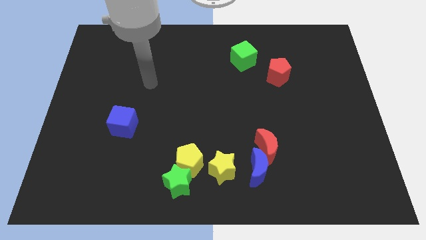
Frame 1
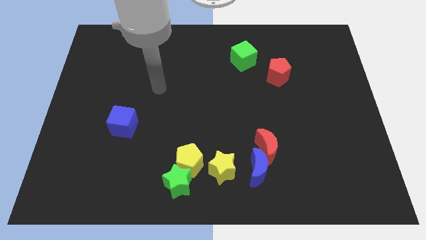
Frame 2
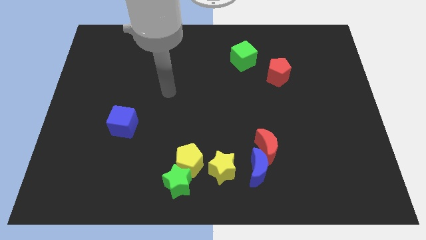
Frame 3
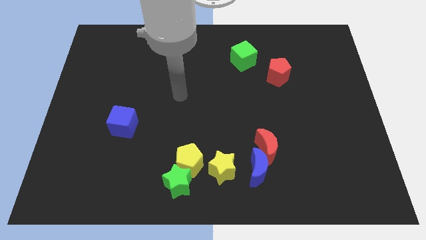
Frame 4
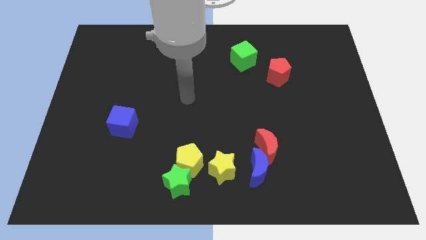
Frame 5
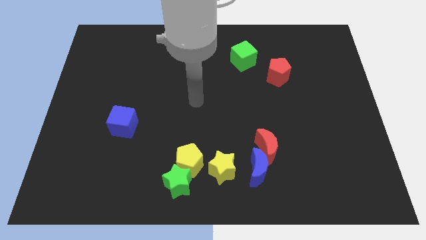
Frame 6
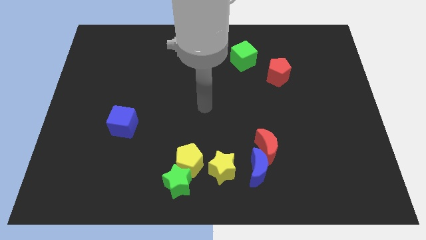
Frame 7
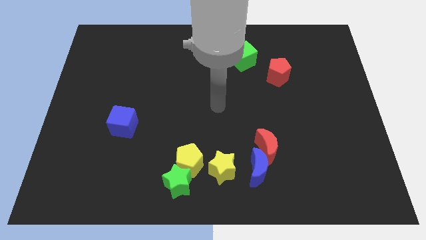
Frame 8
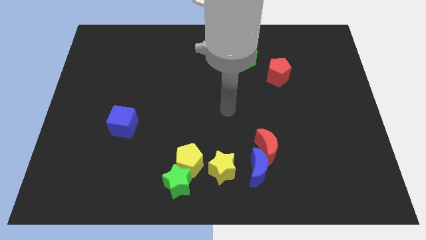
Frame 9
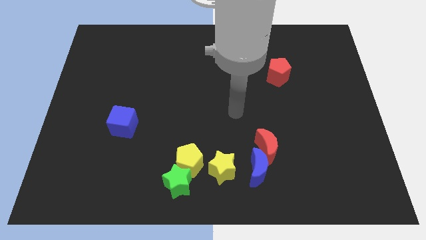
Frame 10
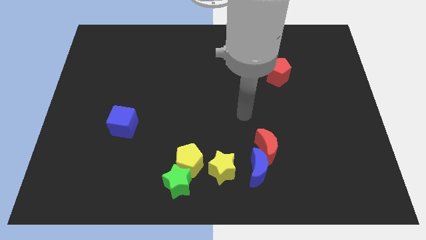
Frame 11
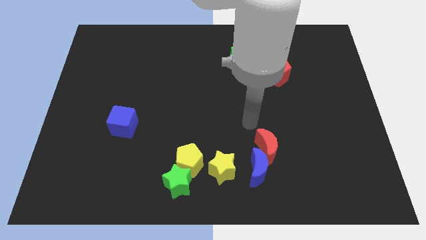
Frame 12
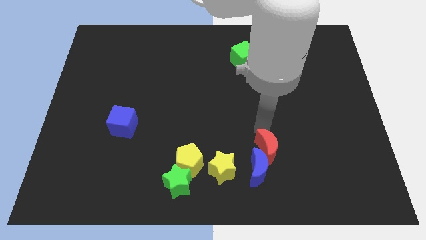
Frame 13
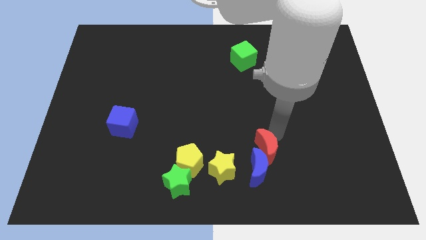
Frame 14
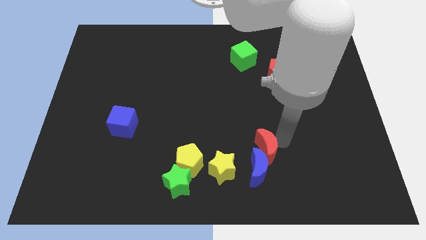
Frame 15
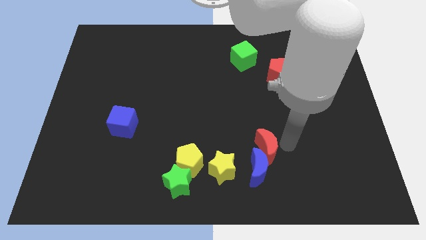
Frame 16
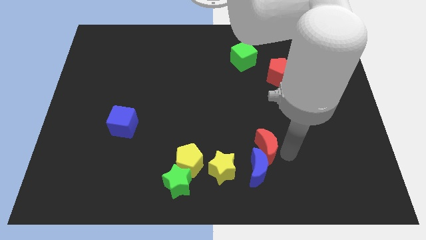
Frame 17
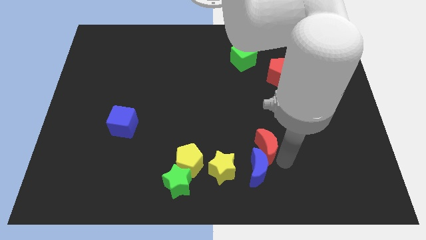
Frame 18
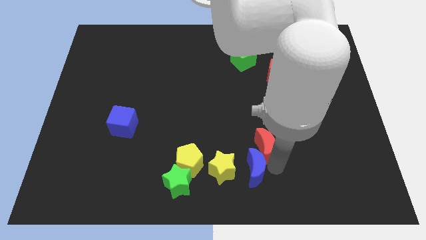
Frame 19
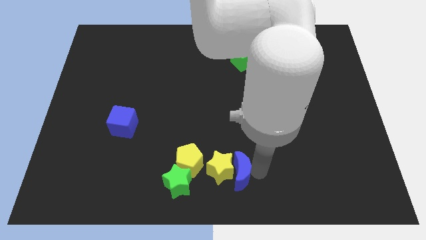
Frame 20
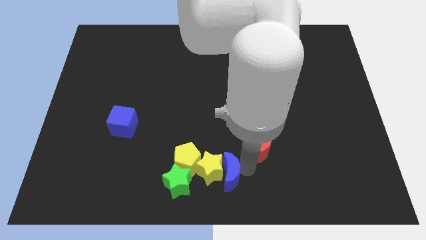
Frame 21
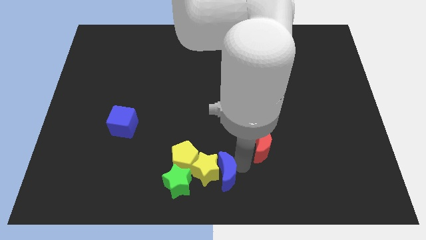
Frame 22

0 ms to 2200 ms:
move the red moon away from the blue moon

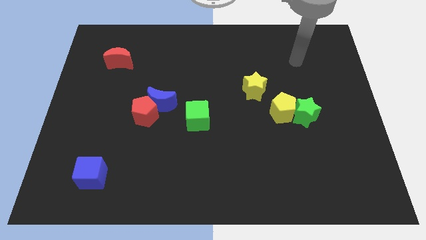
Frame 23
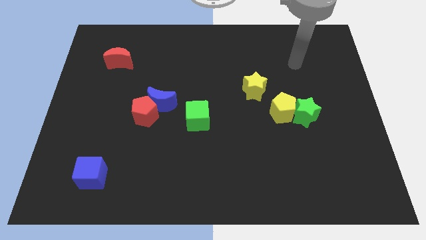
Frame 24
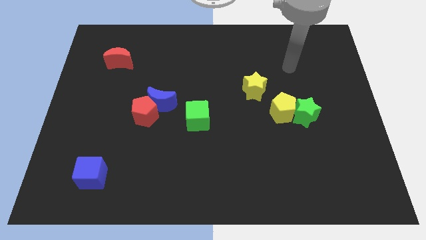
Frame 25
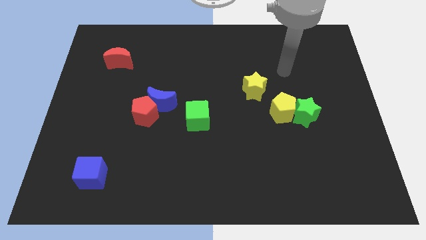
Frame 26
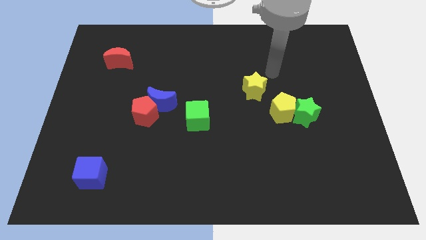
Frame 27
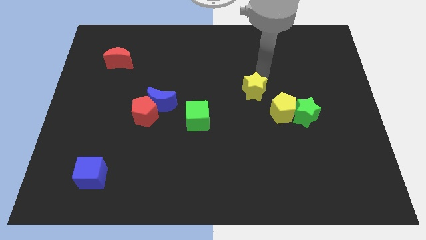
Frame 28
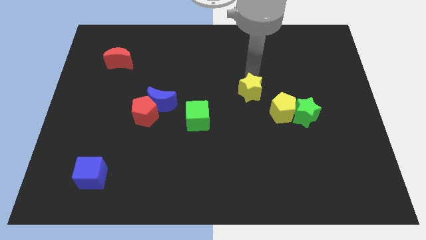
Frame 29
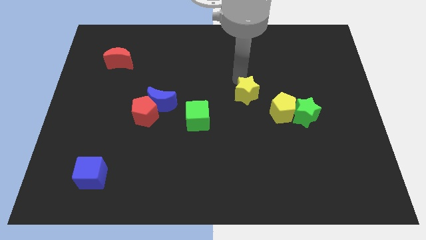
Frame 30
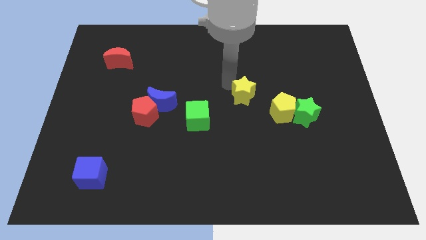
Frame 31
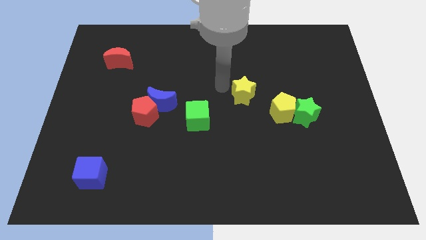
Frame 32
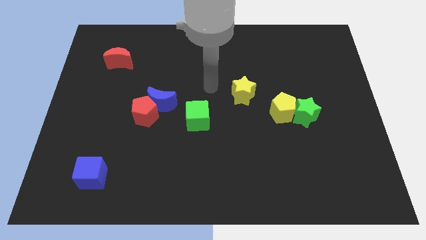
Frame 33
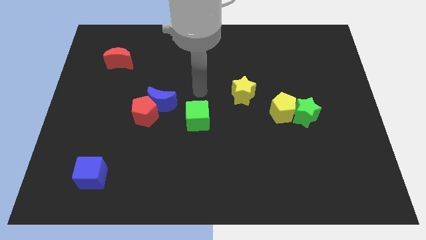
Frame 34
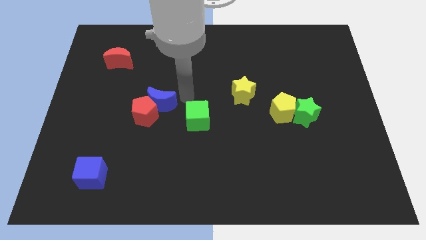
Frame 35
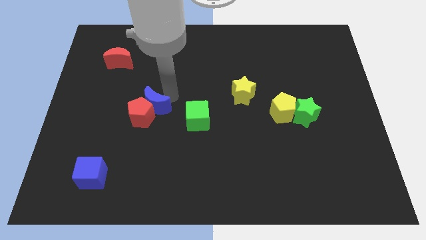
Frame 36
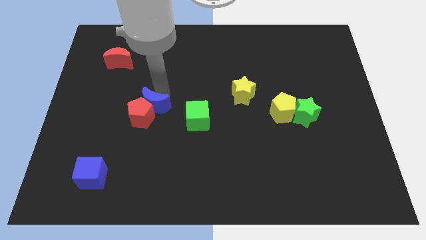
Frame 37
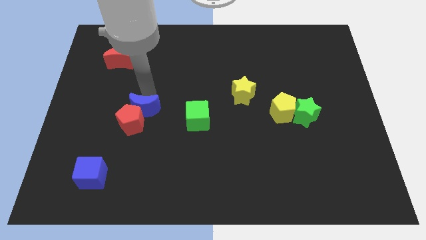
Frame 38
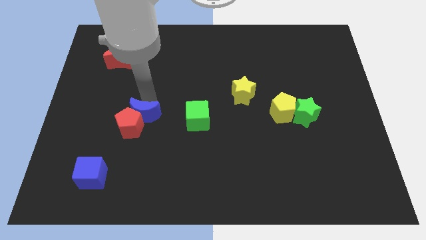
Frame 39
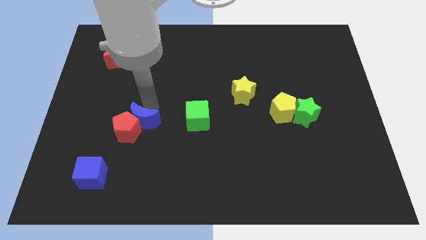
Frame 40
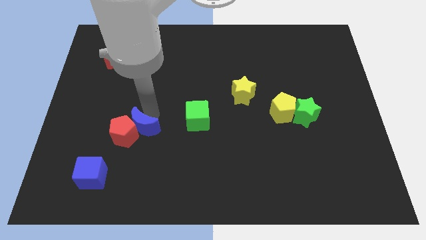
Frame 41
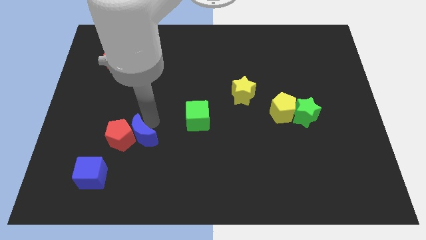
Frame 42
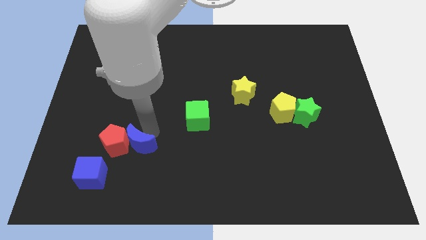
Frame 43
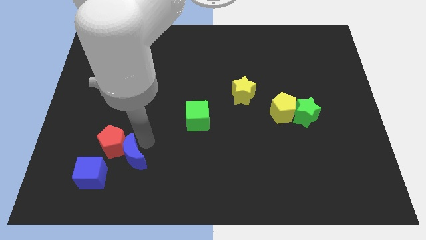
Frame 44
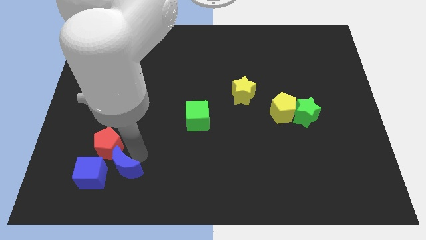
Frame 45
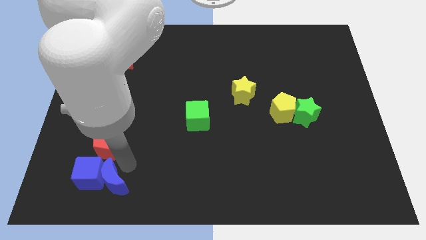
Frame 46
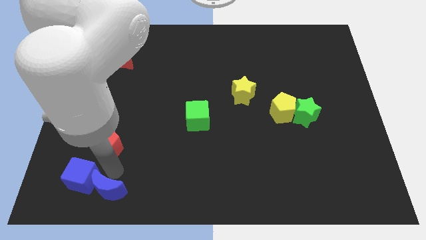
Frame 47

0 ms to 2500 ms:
separate the red pentagon from the blue moon

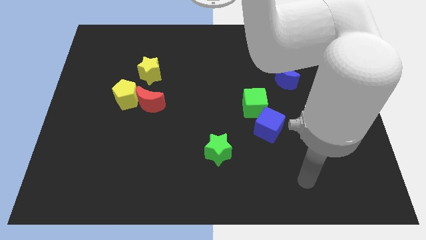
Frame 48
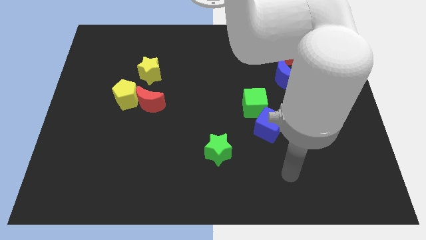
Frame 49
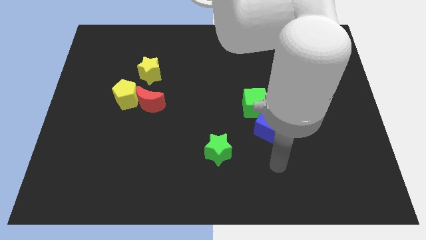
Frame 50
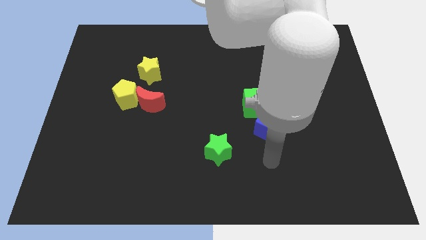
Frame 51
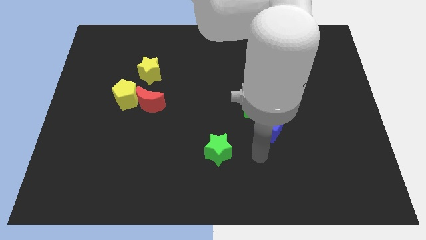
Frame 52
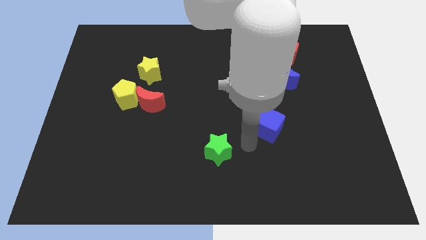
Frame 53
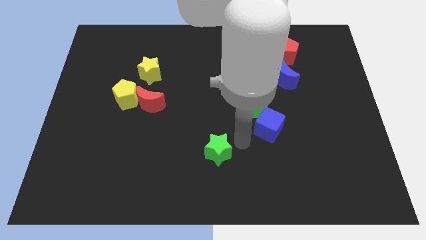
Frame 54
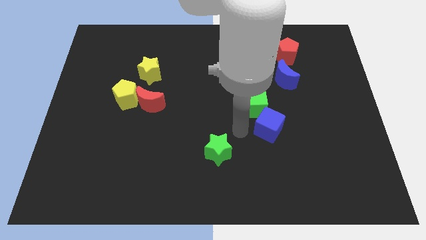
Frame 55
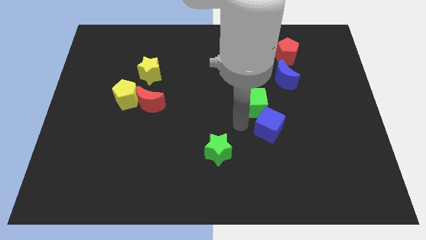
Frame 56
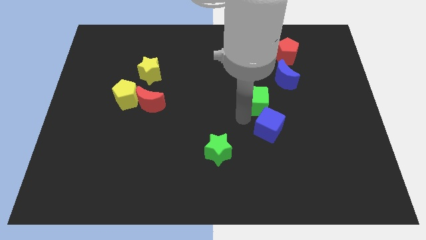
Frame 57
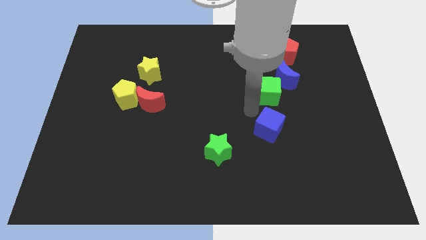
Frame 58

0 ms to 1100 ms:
pull the blue cube apart from the green cube

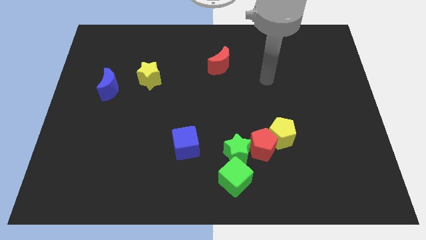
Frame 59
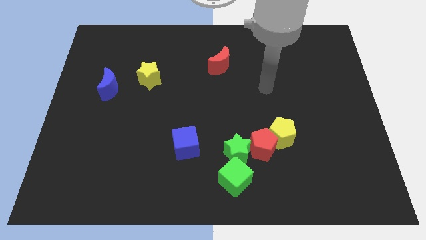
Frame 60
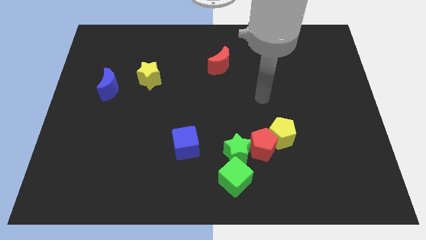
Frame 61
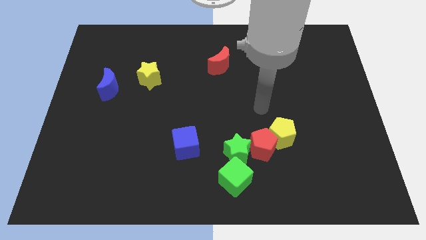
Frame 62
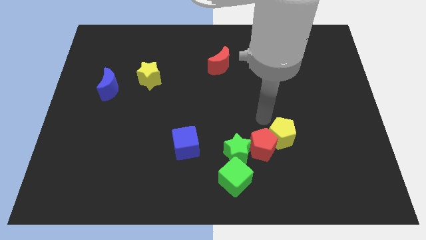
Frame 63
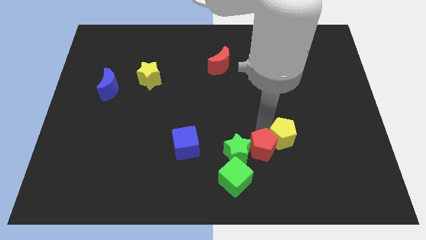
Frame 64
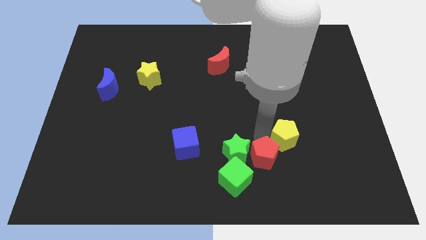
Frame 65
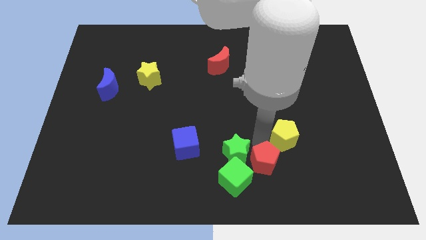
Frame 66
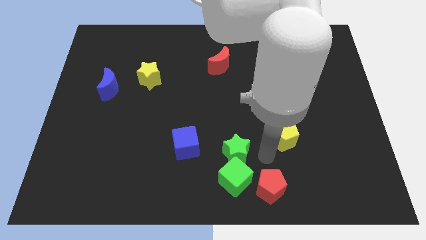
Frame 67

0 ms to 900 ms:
separate the yellow pentagon from the red pentagon

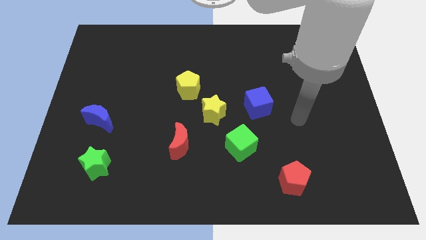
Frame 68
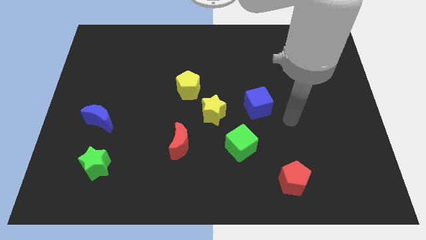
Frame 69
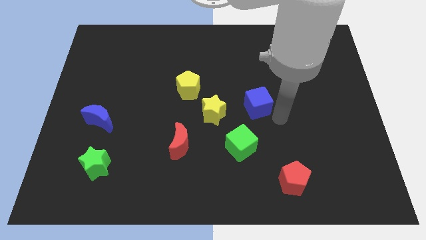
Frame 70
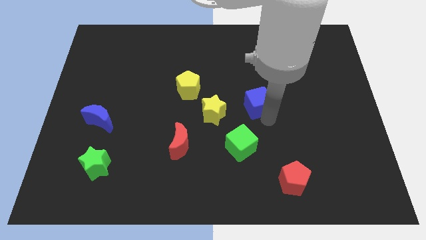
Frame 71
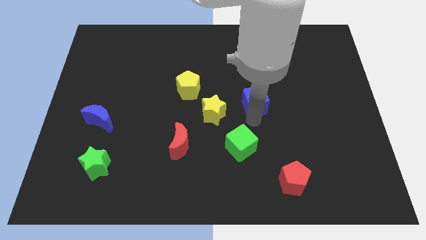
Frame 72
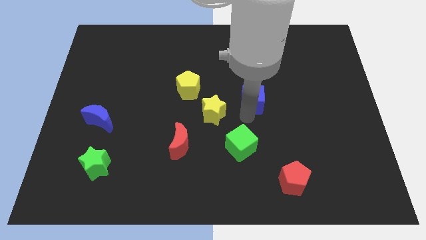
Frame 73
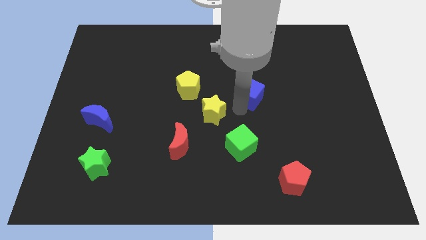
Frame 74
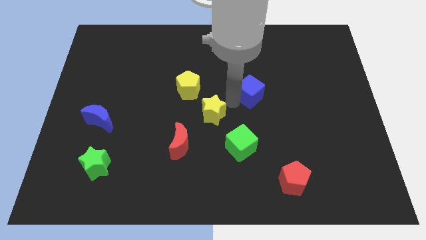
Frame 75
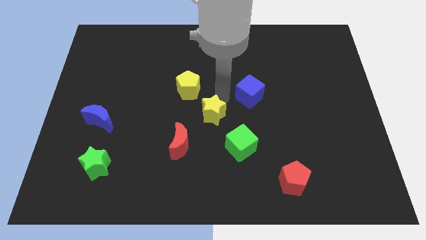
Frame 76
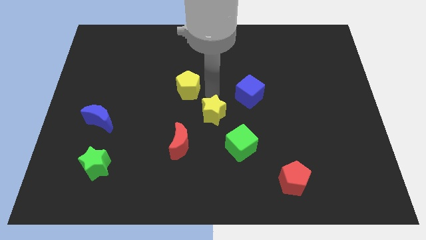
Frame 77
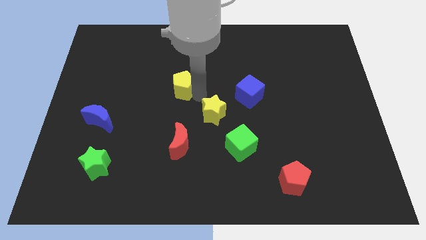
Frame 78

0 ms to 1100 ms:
separate the yellow star from the yellow pentagon

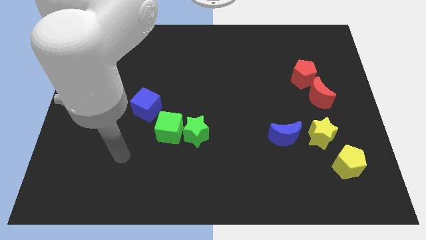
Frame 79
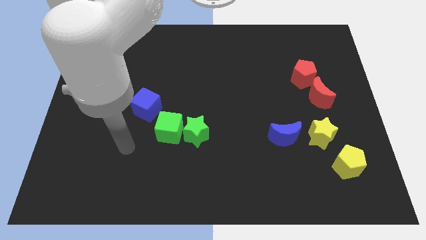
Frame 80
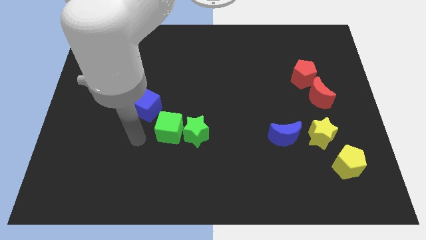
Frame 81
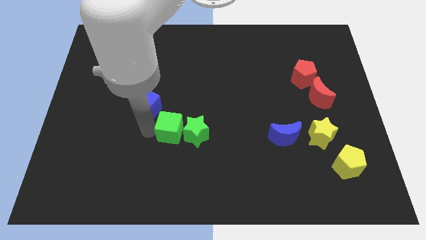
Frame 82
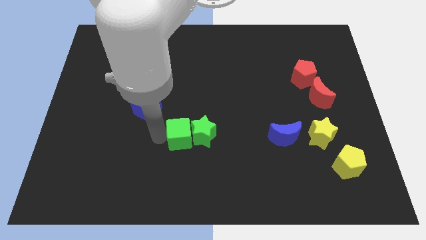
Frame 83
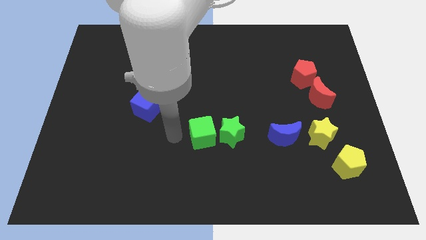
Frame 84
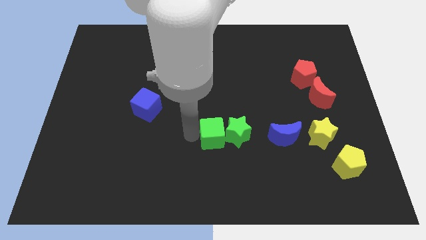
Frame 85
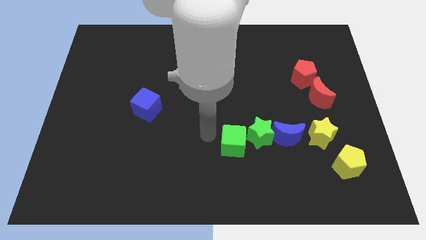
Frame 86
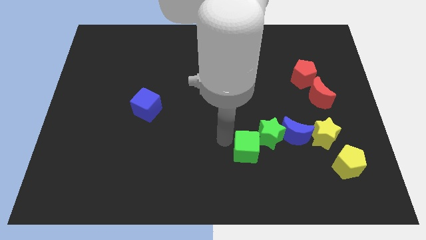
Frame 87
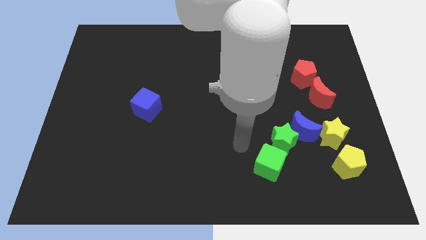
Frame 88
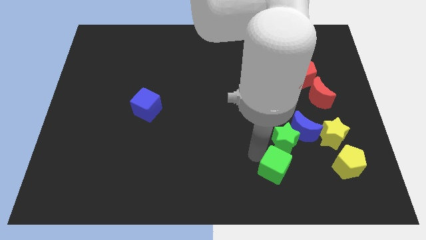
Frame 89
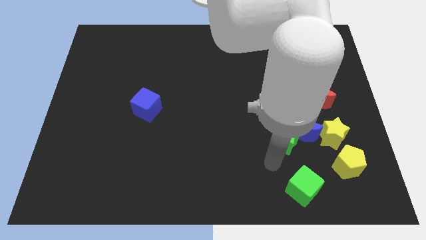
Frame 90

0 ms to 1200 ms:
separate the green star from the green cube

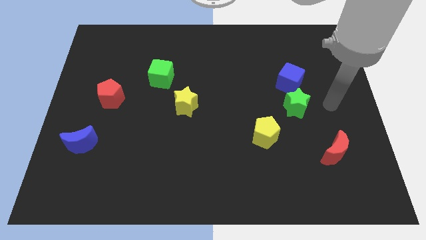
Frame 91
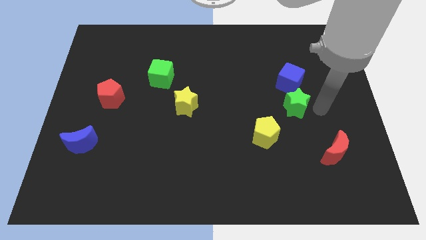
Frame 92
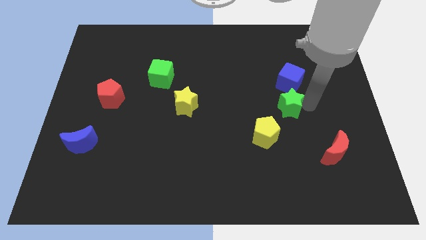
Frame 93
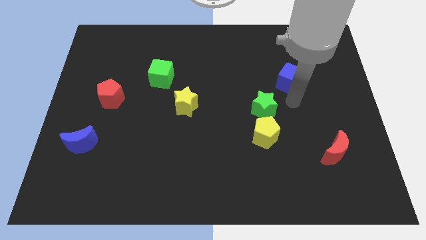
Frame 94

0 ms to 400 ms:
separate the blue cube from the green star
